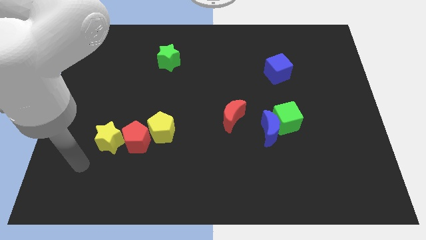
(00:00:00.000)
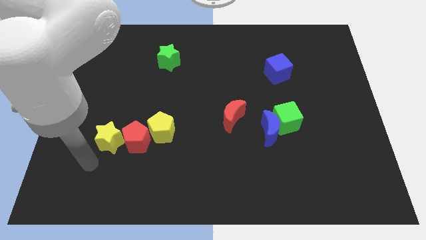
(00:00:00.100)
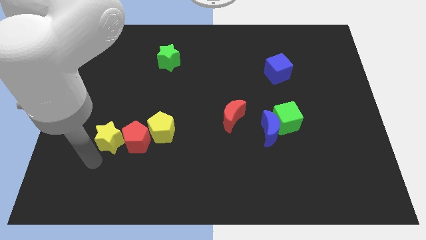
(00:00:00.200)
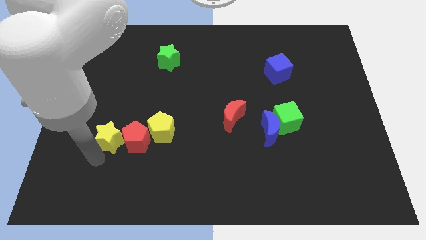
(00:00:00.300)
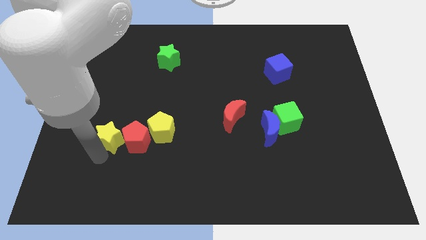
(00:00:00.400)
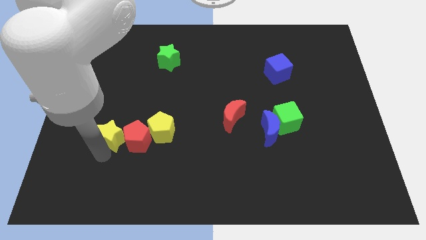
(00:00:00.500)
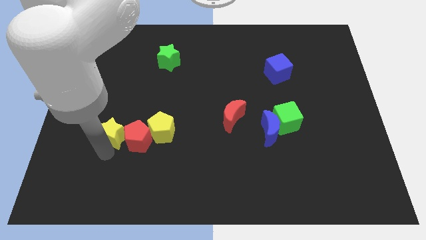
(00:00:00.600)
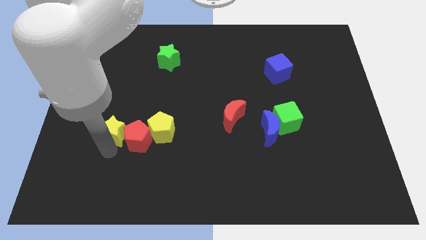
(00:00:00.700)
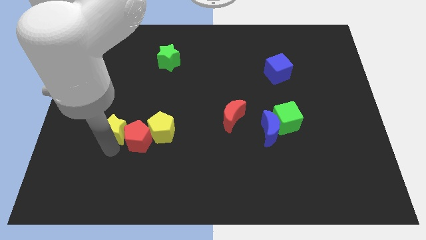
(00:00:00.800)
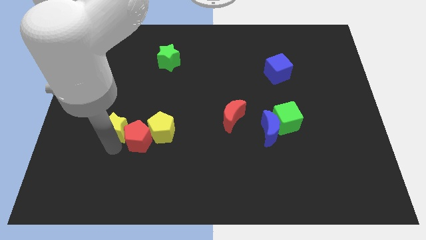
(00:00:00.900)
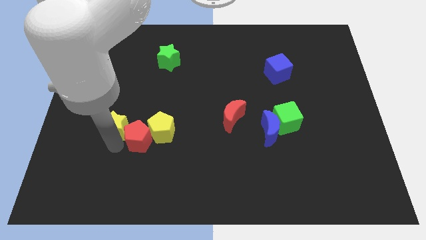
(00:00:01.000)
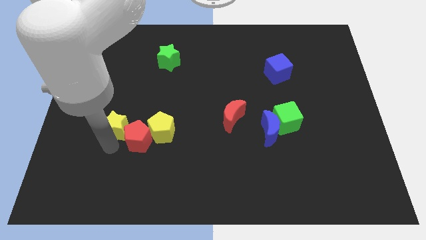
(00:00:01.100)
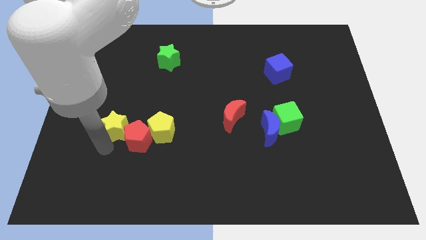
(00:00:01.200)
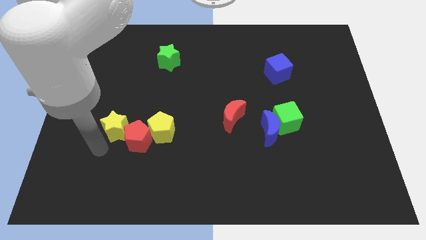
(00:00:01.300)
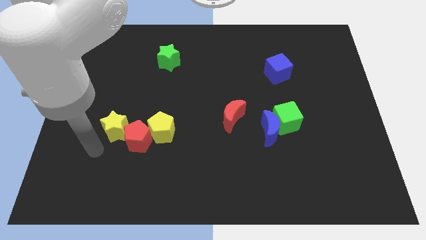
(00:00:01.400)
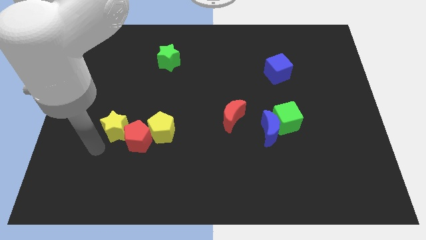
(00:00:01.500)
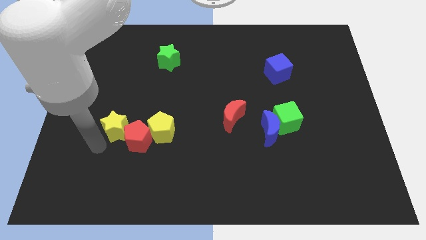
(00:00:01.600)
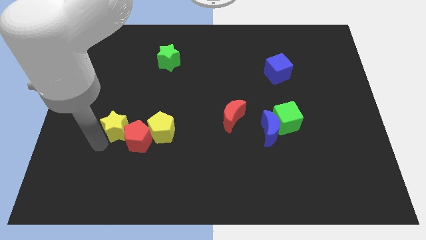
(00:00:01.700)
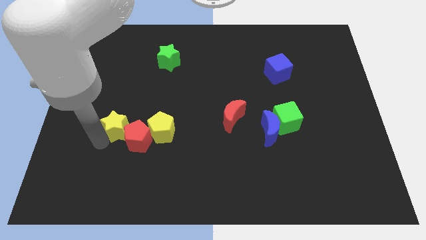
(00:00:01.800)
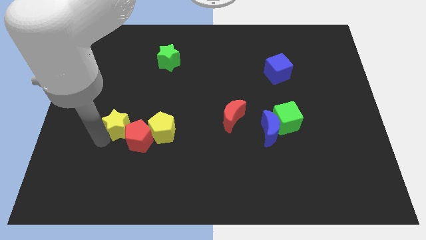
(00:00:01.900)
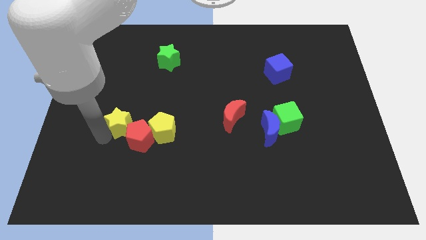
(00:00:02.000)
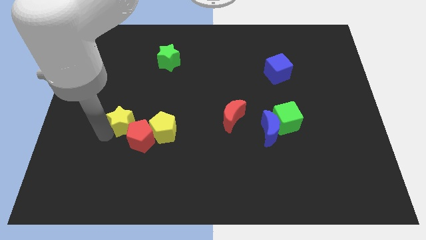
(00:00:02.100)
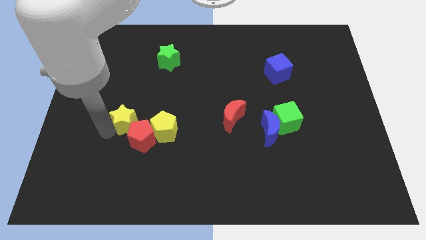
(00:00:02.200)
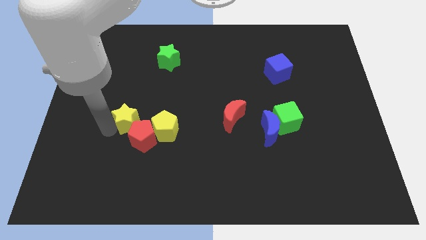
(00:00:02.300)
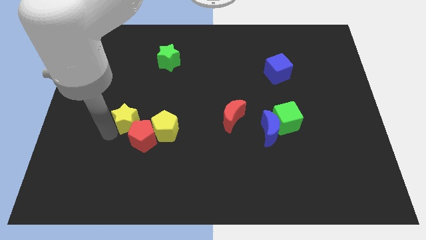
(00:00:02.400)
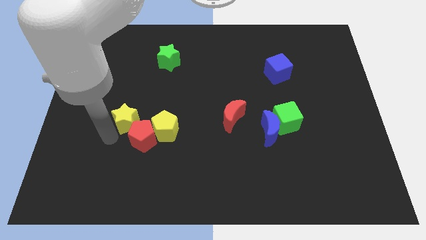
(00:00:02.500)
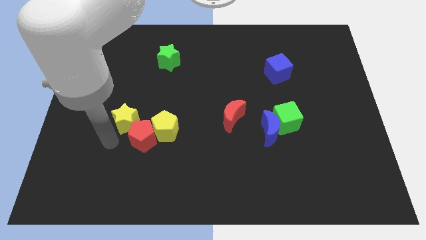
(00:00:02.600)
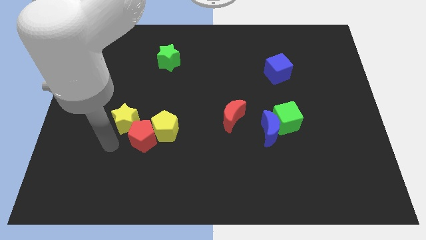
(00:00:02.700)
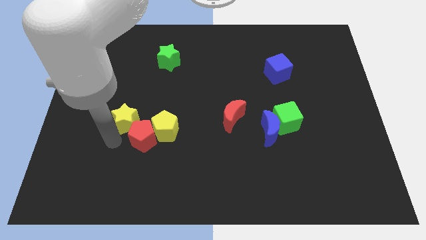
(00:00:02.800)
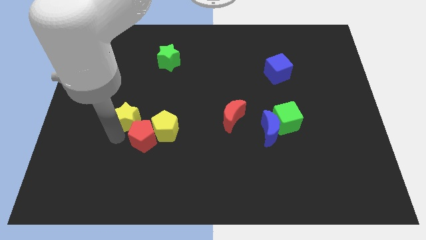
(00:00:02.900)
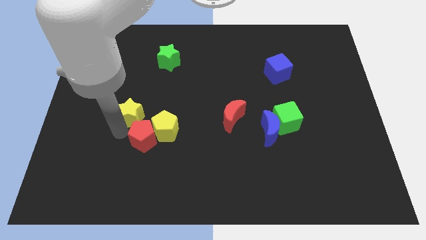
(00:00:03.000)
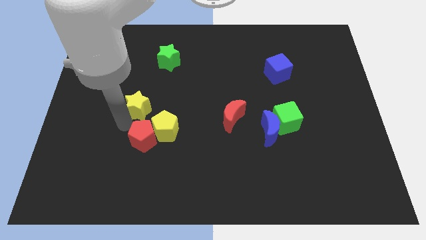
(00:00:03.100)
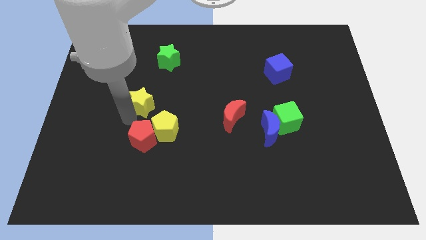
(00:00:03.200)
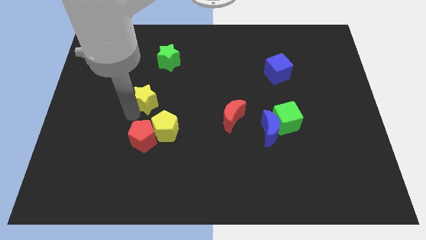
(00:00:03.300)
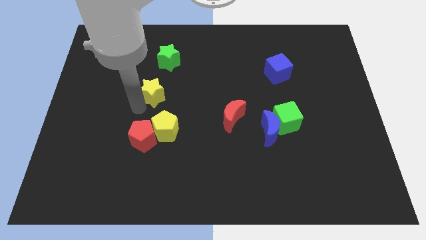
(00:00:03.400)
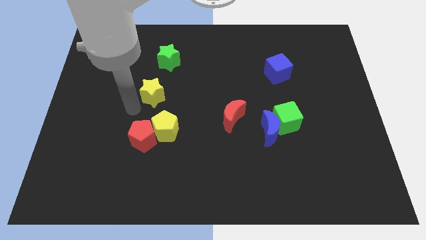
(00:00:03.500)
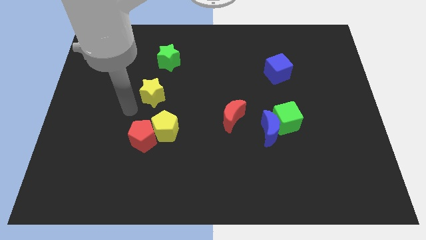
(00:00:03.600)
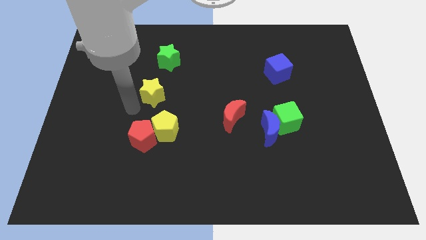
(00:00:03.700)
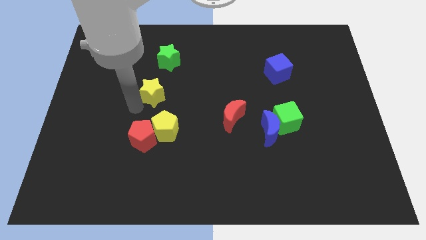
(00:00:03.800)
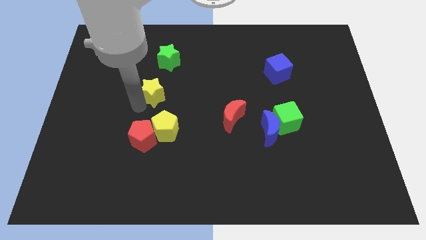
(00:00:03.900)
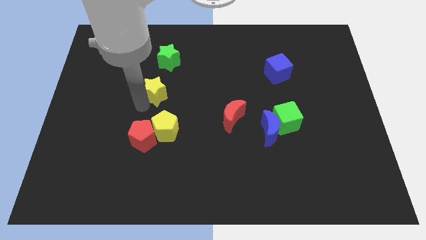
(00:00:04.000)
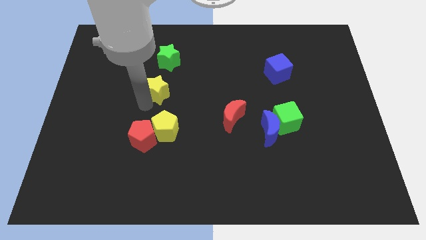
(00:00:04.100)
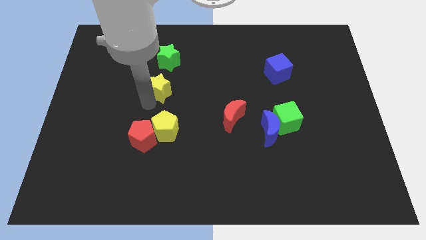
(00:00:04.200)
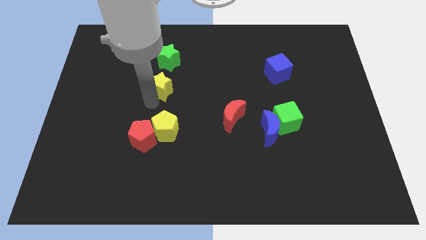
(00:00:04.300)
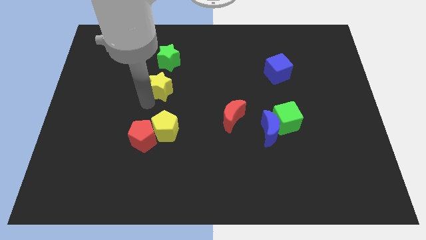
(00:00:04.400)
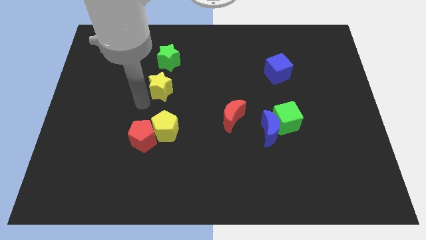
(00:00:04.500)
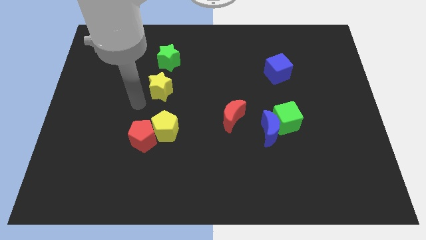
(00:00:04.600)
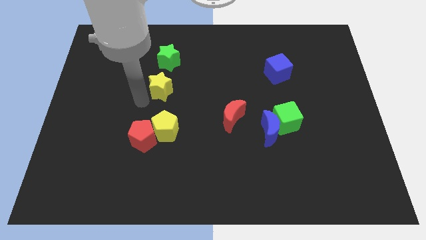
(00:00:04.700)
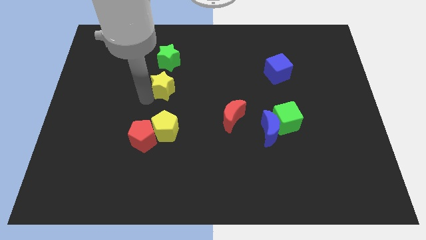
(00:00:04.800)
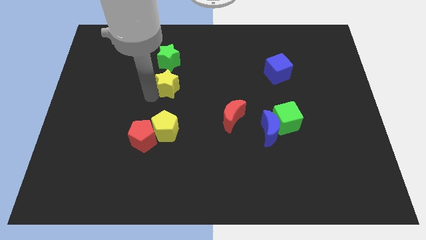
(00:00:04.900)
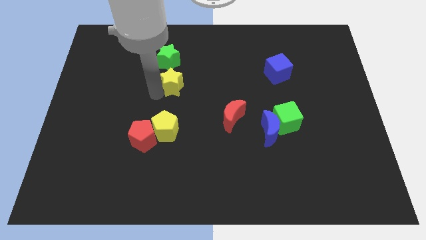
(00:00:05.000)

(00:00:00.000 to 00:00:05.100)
slide the yellow star up and then right

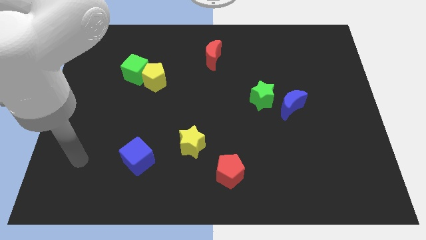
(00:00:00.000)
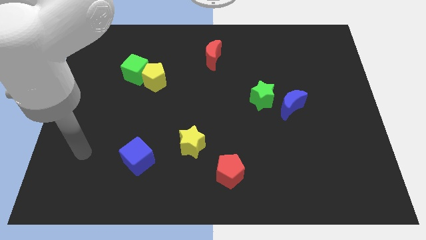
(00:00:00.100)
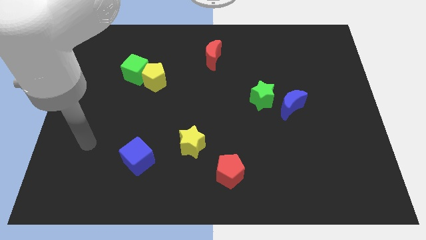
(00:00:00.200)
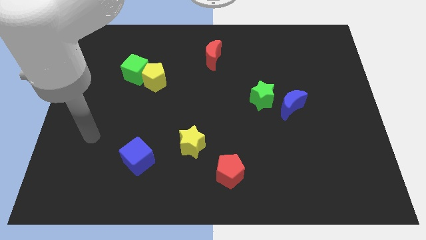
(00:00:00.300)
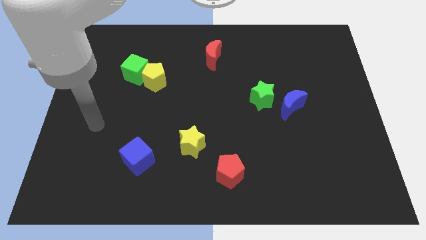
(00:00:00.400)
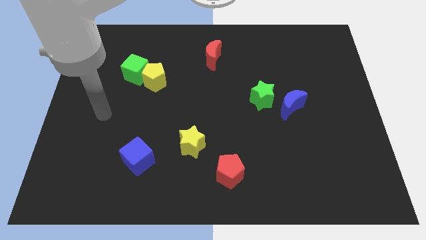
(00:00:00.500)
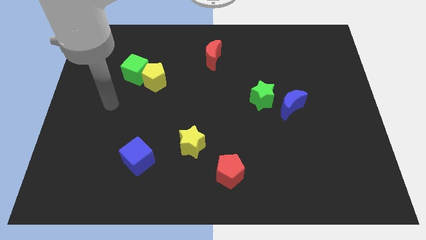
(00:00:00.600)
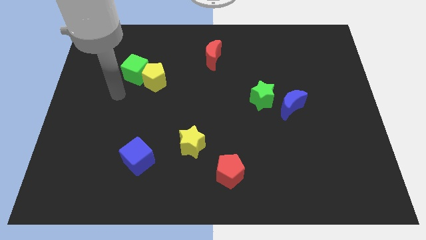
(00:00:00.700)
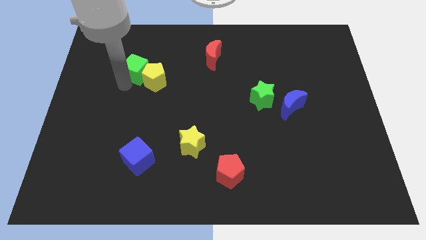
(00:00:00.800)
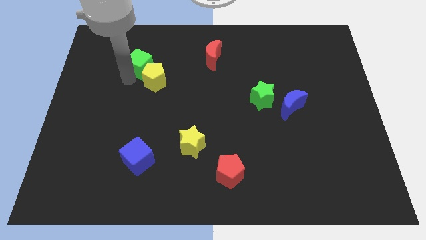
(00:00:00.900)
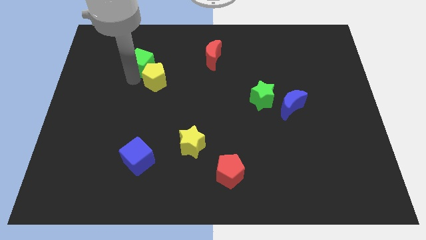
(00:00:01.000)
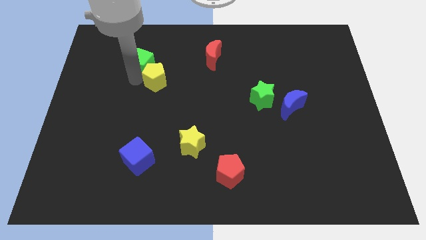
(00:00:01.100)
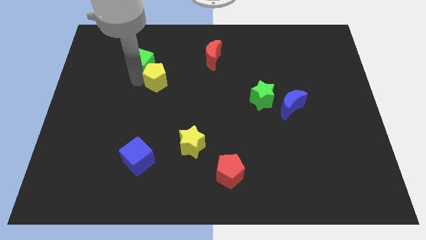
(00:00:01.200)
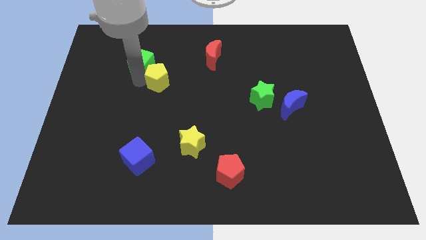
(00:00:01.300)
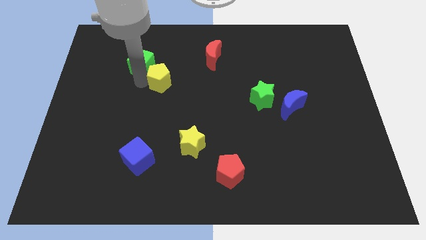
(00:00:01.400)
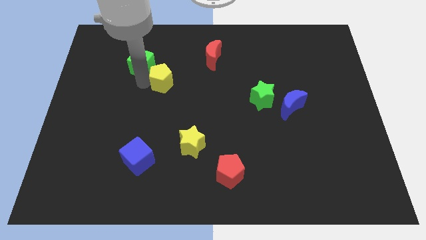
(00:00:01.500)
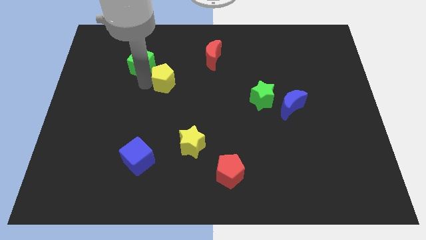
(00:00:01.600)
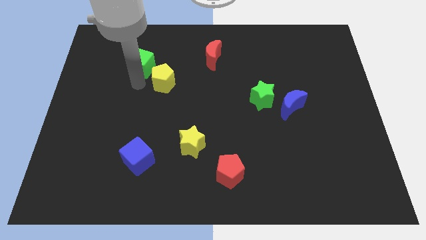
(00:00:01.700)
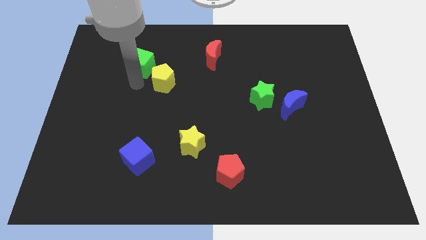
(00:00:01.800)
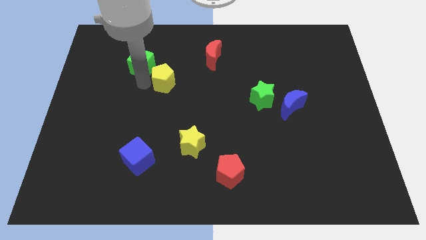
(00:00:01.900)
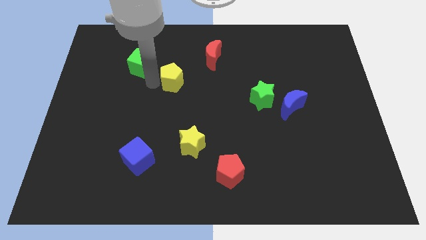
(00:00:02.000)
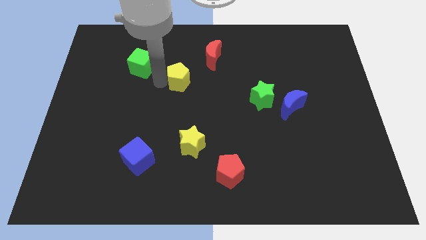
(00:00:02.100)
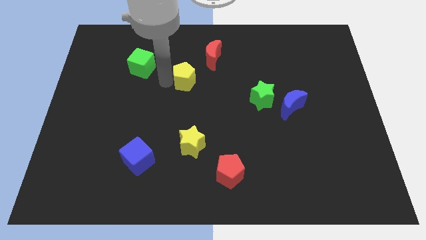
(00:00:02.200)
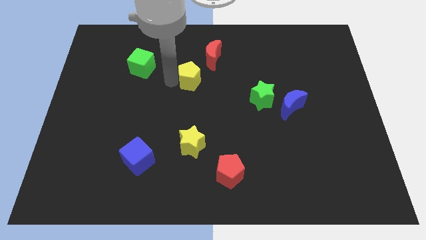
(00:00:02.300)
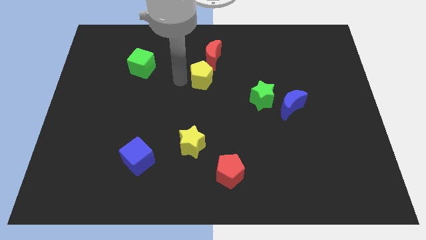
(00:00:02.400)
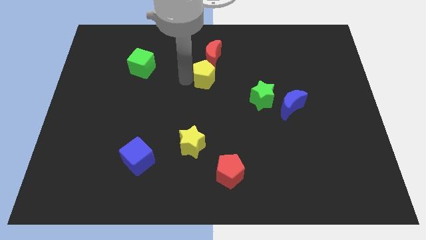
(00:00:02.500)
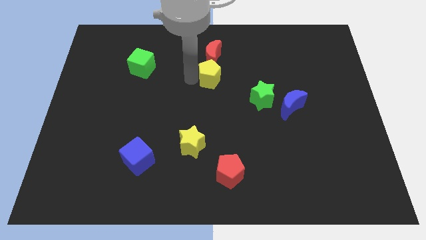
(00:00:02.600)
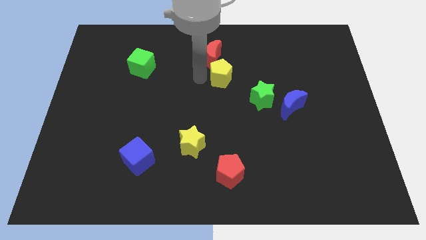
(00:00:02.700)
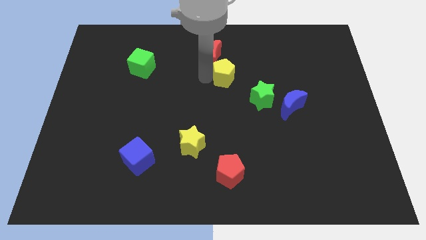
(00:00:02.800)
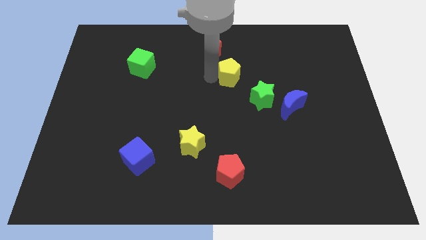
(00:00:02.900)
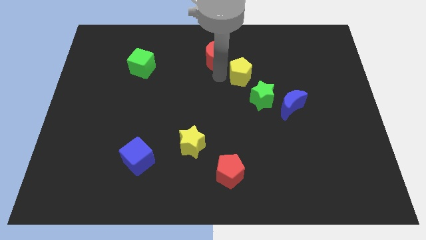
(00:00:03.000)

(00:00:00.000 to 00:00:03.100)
push the yellow pentagon to the right

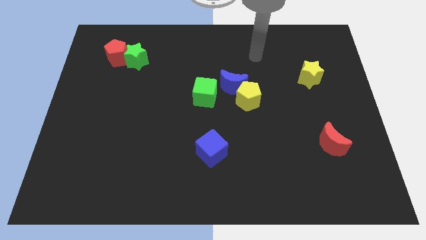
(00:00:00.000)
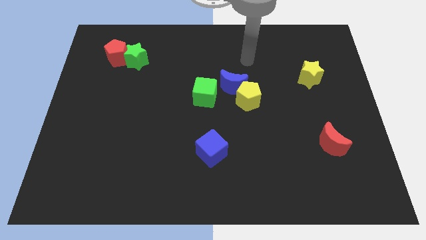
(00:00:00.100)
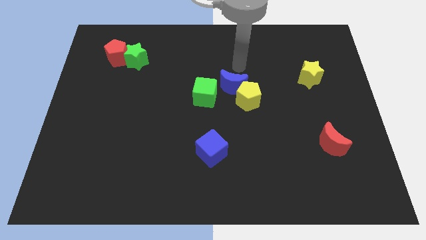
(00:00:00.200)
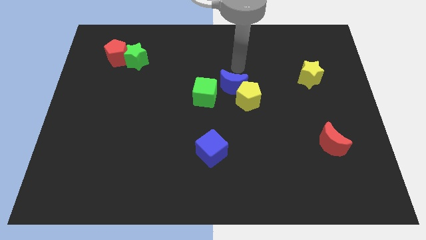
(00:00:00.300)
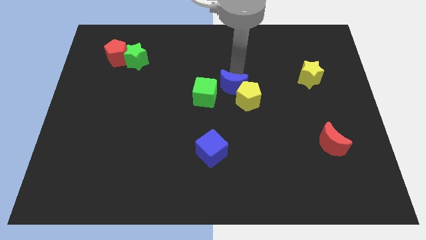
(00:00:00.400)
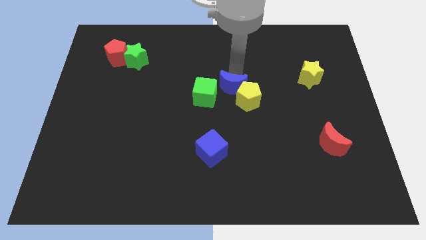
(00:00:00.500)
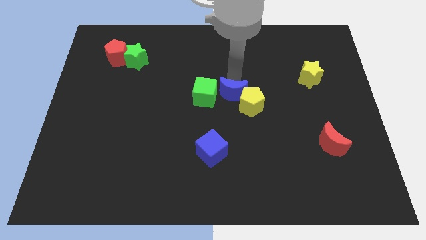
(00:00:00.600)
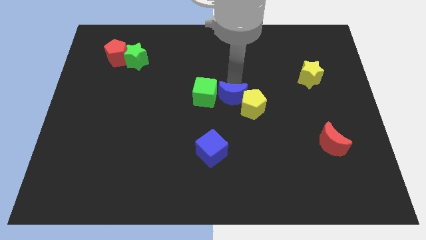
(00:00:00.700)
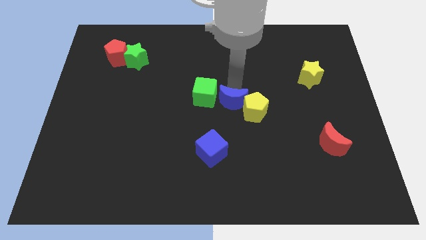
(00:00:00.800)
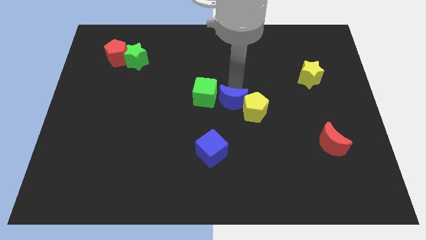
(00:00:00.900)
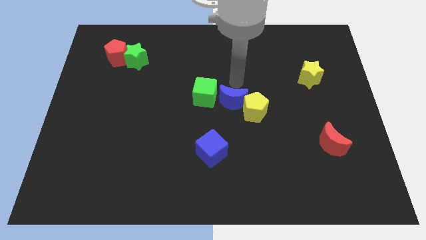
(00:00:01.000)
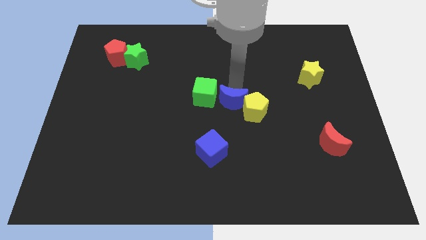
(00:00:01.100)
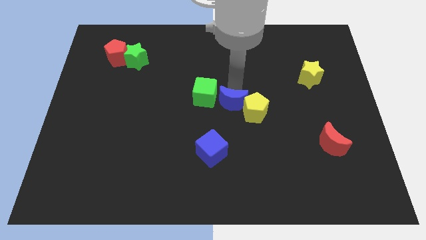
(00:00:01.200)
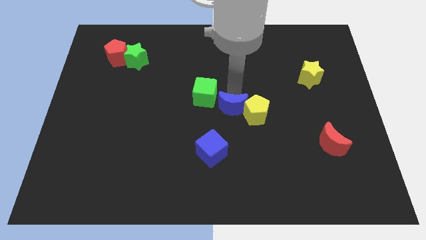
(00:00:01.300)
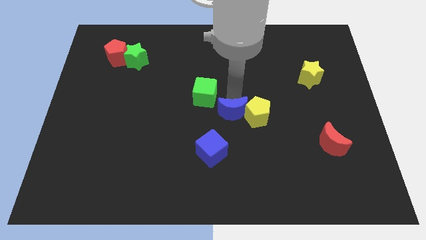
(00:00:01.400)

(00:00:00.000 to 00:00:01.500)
slightly slide the blue moon down
